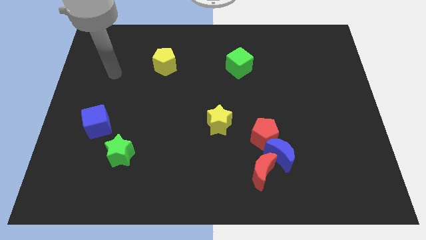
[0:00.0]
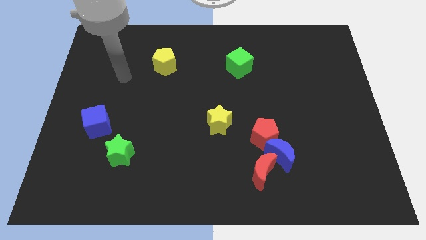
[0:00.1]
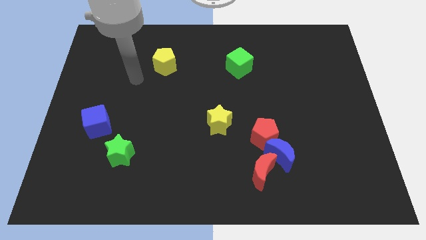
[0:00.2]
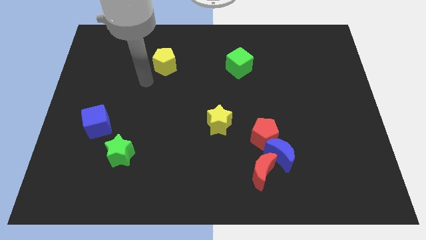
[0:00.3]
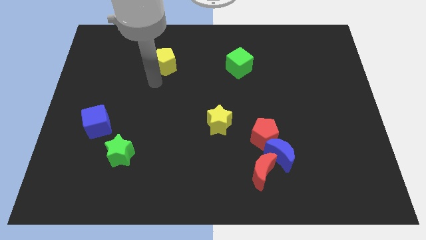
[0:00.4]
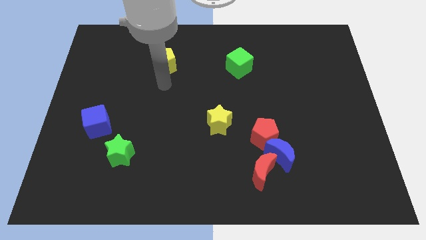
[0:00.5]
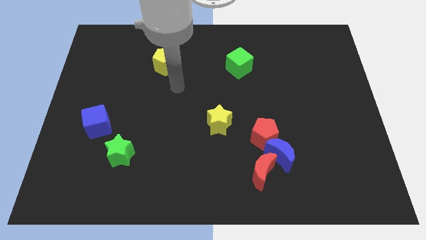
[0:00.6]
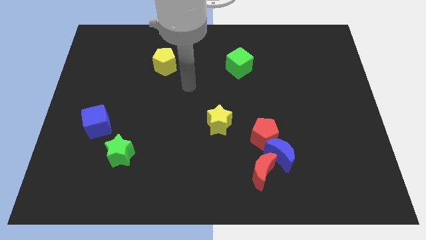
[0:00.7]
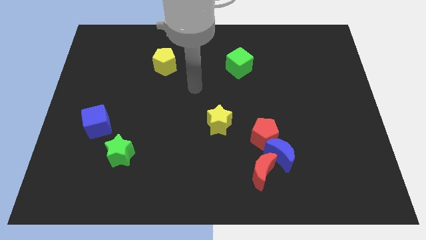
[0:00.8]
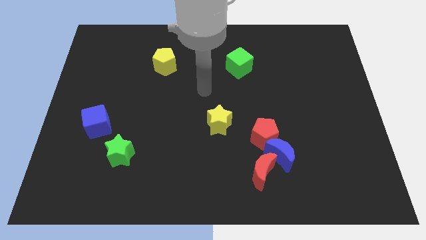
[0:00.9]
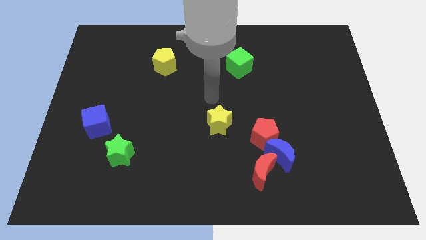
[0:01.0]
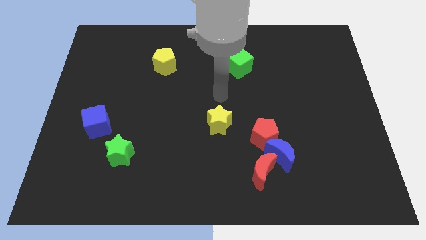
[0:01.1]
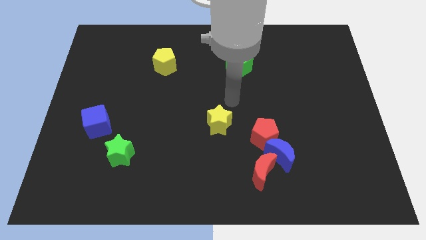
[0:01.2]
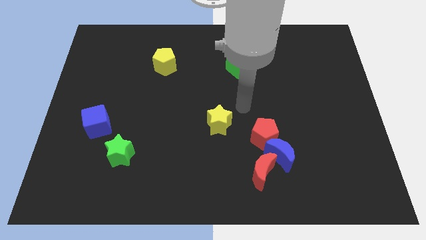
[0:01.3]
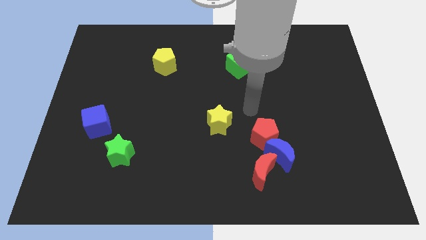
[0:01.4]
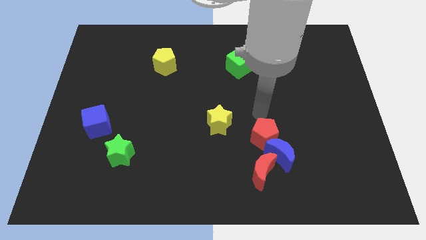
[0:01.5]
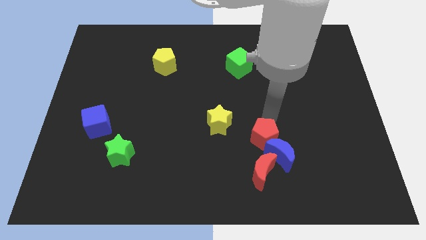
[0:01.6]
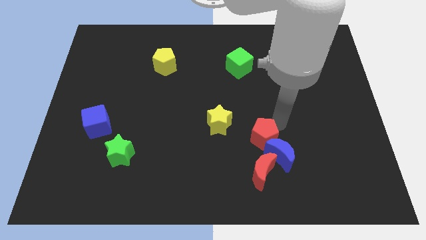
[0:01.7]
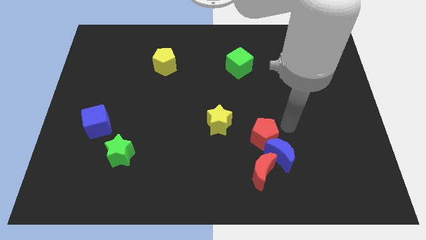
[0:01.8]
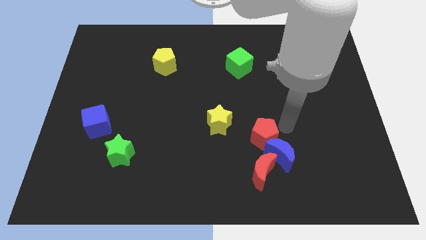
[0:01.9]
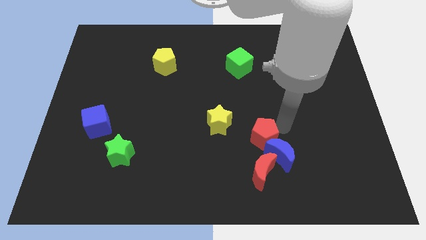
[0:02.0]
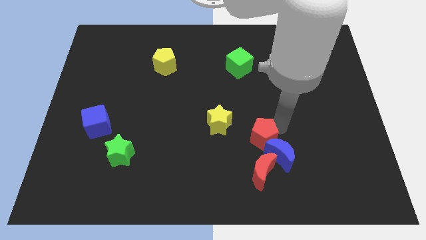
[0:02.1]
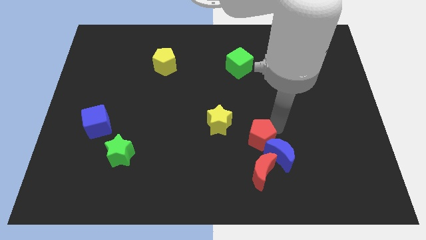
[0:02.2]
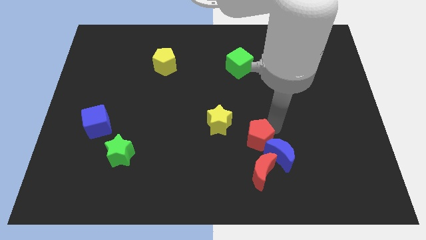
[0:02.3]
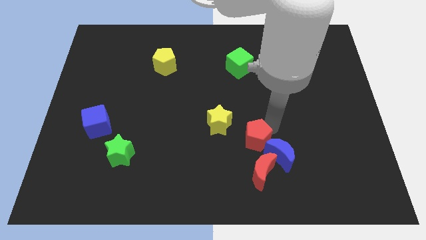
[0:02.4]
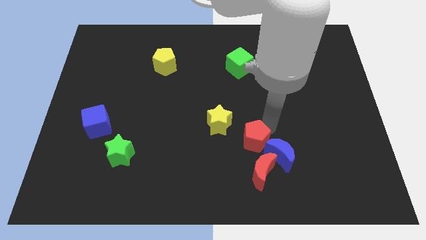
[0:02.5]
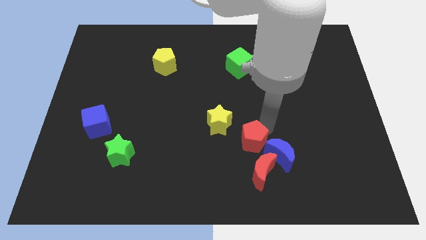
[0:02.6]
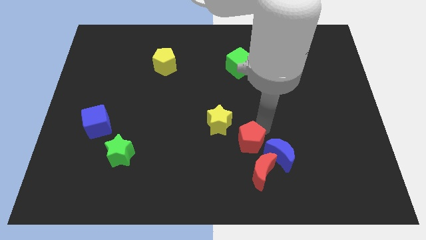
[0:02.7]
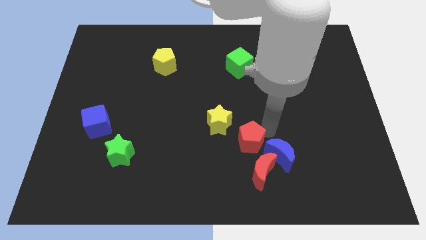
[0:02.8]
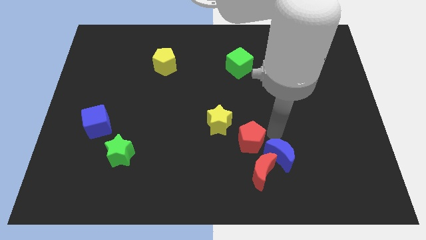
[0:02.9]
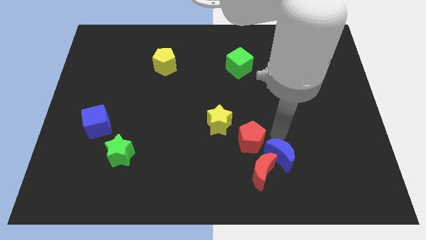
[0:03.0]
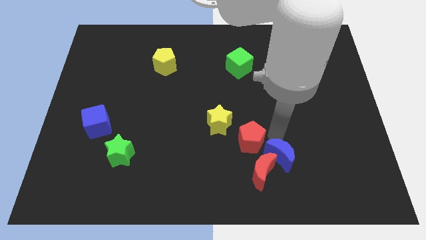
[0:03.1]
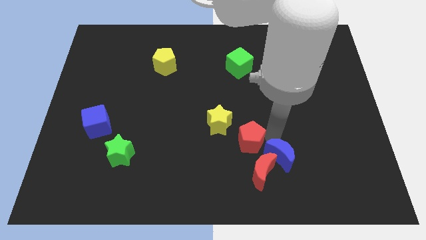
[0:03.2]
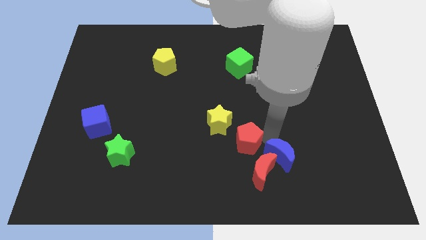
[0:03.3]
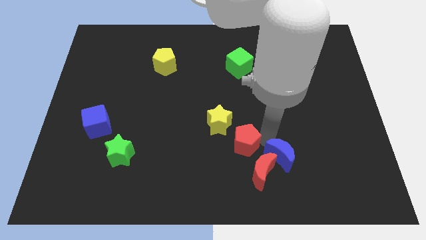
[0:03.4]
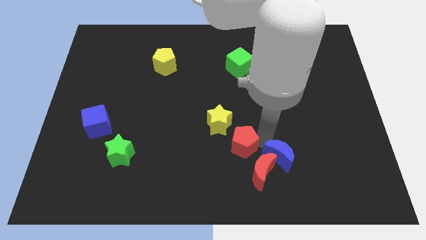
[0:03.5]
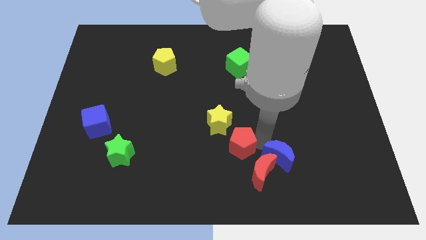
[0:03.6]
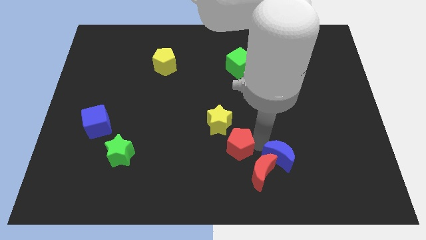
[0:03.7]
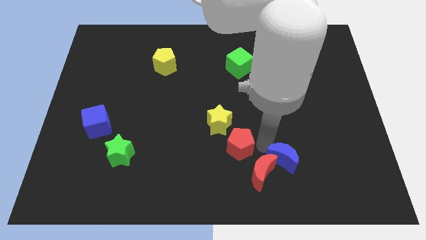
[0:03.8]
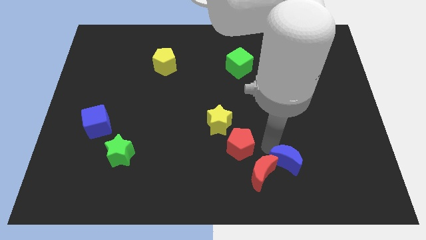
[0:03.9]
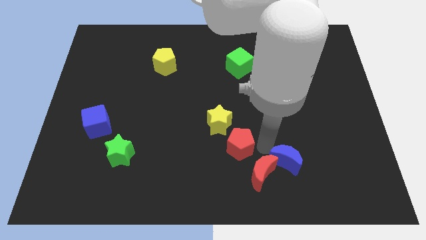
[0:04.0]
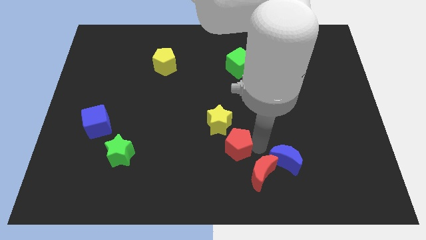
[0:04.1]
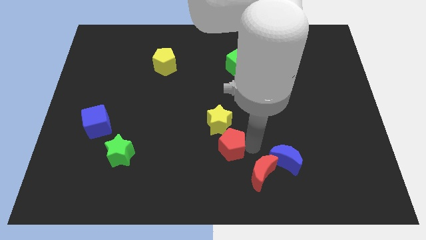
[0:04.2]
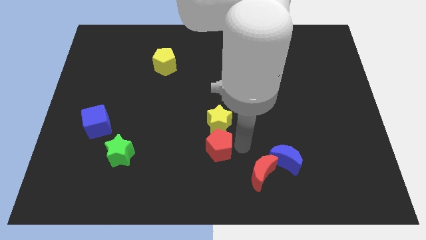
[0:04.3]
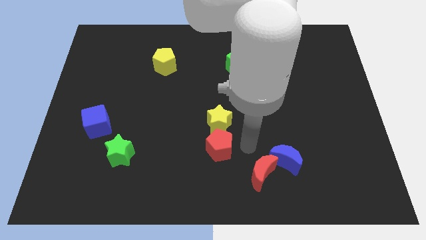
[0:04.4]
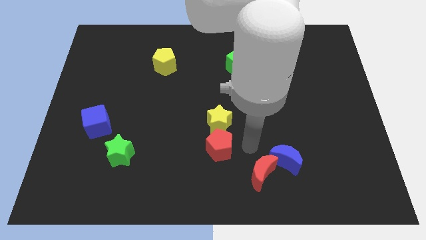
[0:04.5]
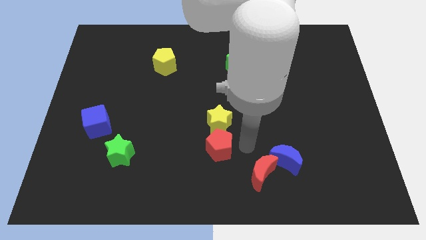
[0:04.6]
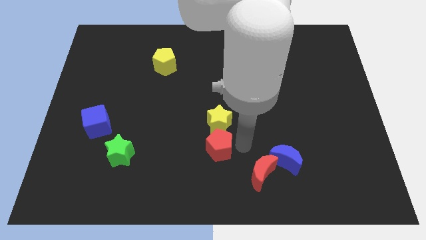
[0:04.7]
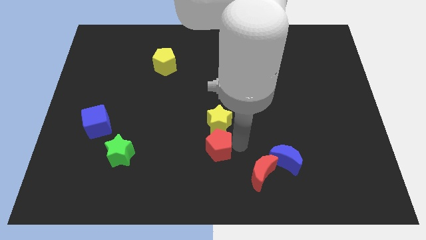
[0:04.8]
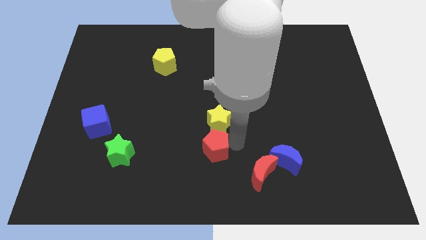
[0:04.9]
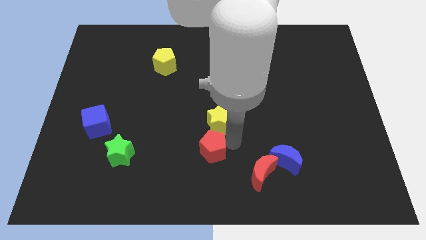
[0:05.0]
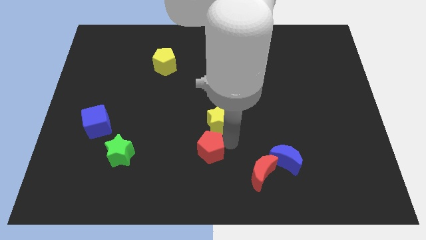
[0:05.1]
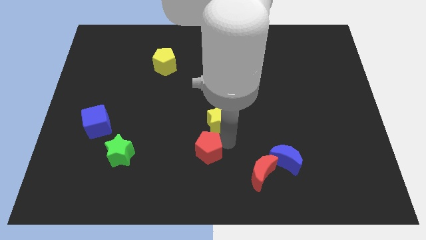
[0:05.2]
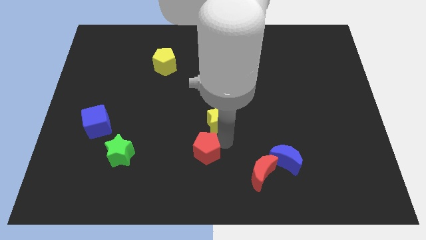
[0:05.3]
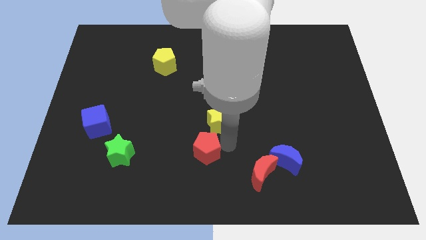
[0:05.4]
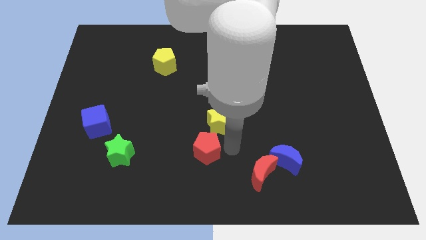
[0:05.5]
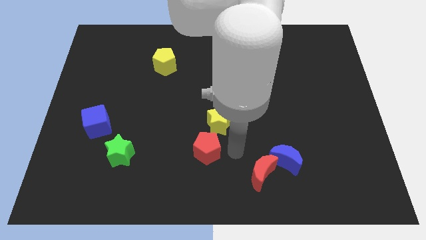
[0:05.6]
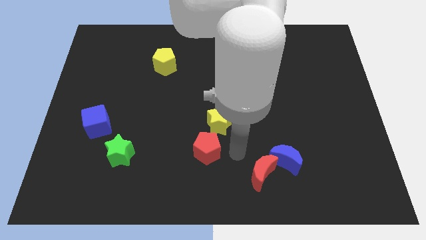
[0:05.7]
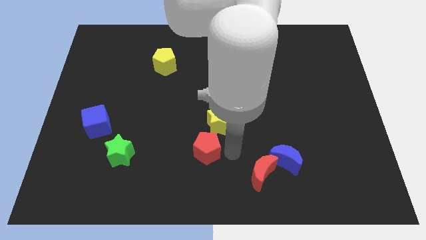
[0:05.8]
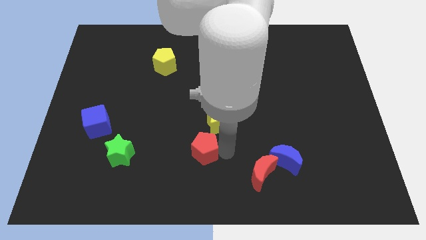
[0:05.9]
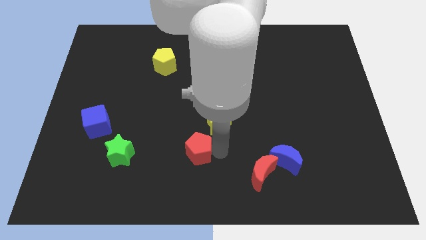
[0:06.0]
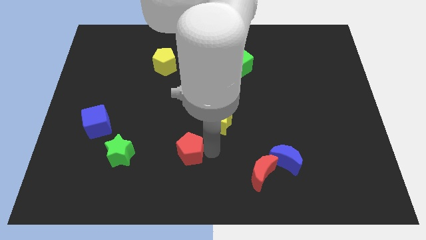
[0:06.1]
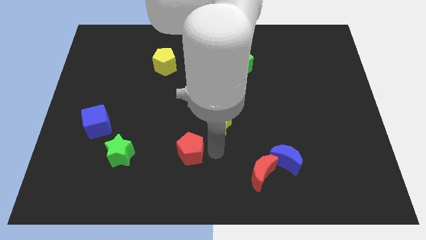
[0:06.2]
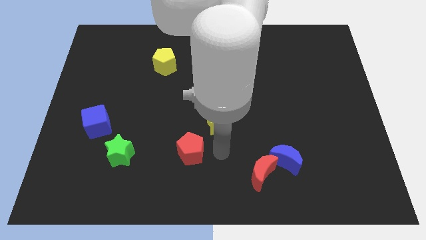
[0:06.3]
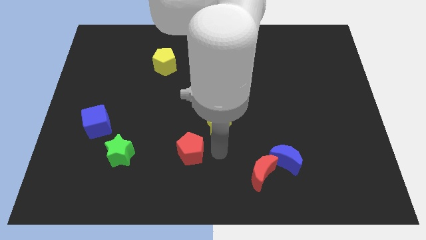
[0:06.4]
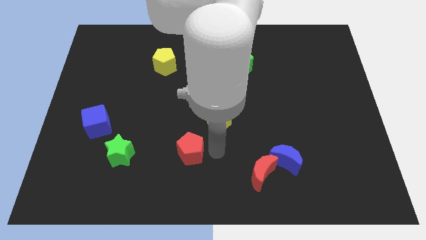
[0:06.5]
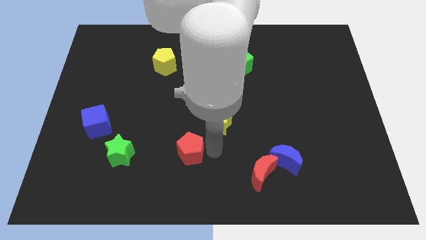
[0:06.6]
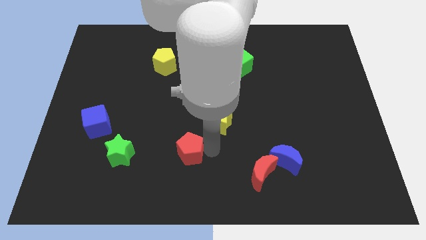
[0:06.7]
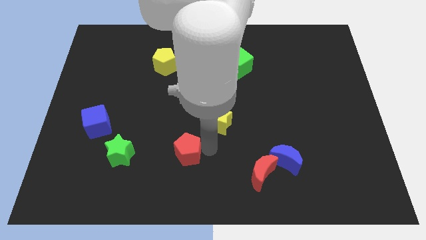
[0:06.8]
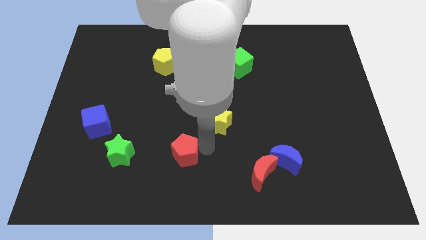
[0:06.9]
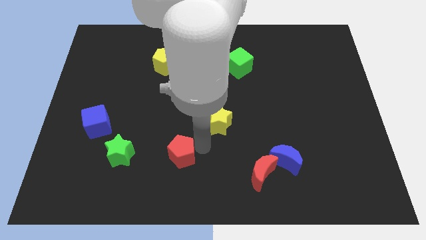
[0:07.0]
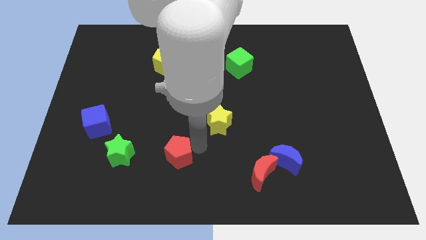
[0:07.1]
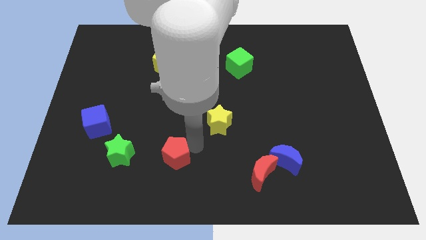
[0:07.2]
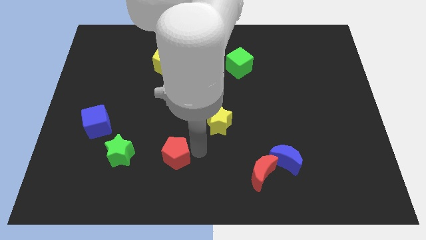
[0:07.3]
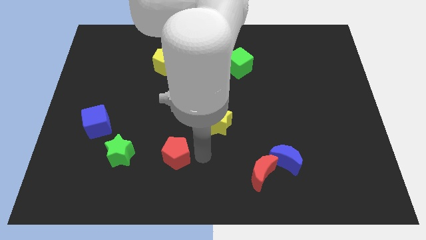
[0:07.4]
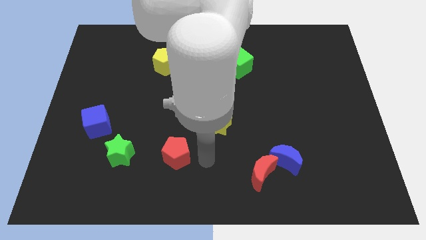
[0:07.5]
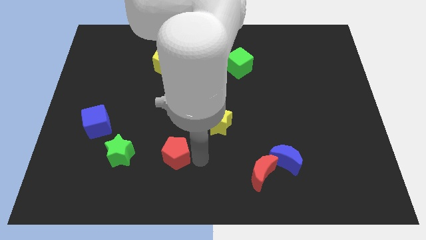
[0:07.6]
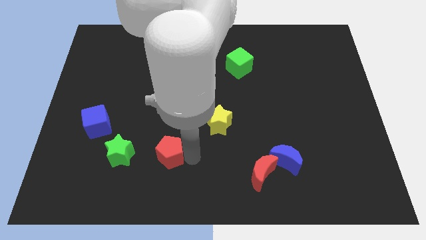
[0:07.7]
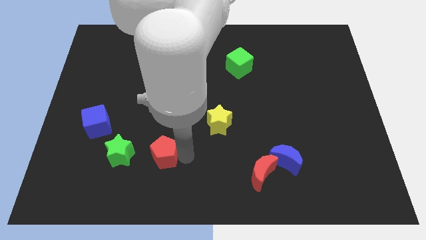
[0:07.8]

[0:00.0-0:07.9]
move the red pentagon to the left
